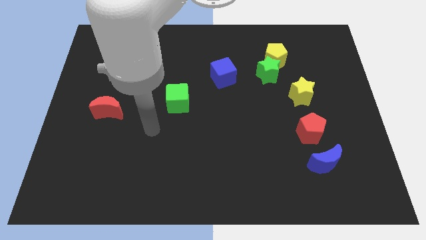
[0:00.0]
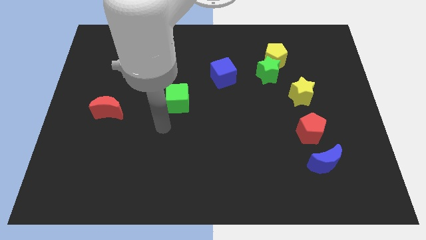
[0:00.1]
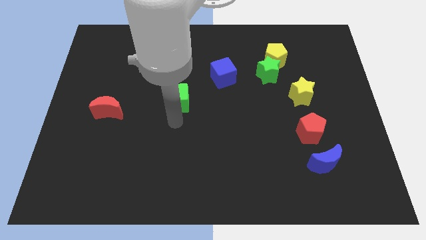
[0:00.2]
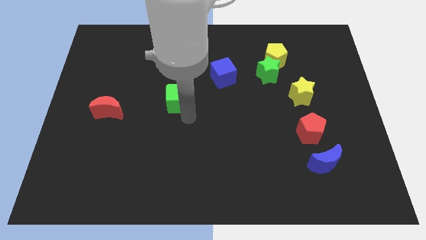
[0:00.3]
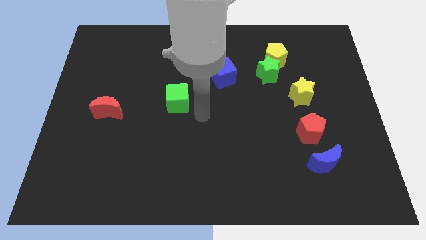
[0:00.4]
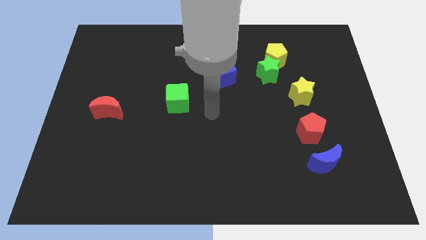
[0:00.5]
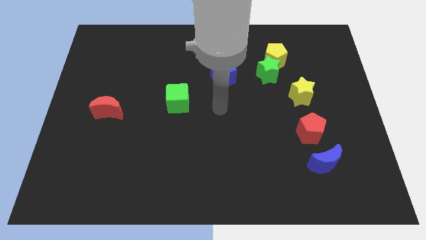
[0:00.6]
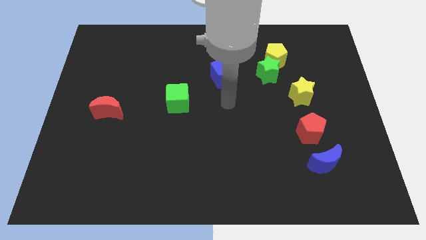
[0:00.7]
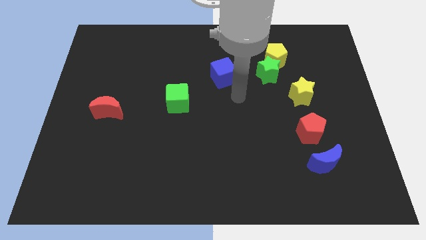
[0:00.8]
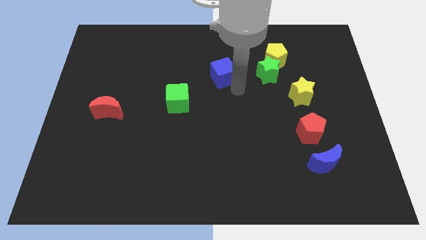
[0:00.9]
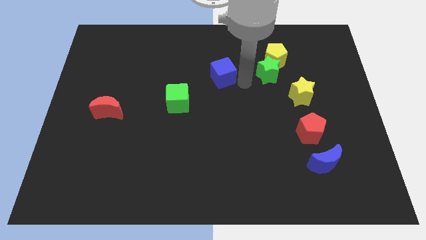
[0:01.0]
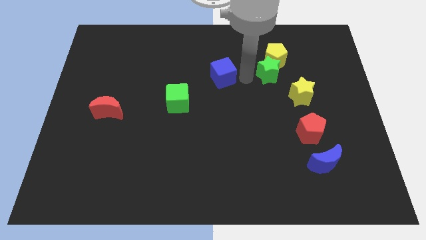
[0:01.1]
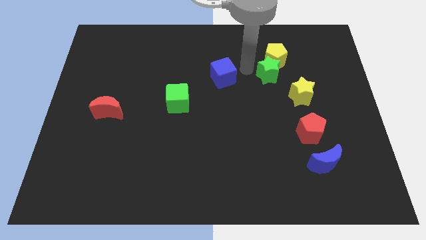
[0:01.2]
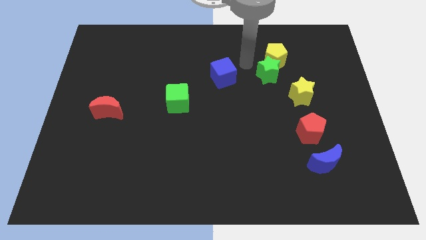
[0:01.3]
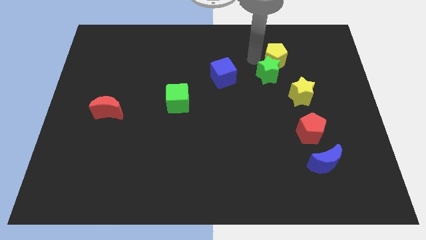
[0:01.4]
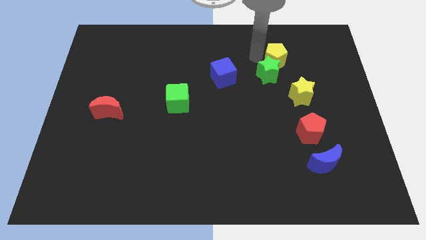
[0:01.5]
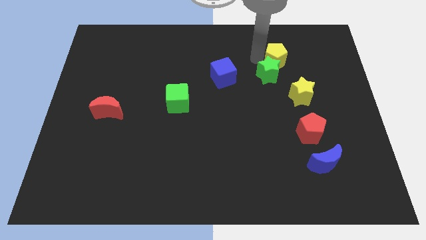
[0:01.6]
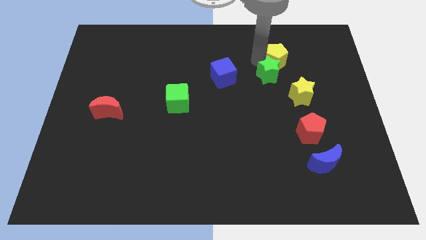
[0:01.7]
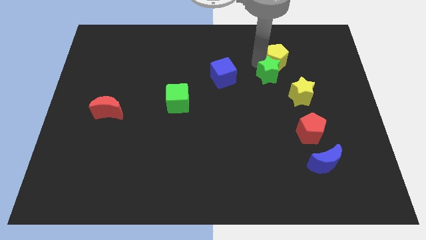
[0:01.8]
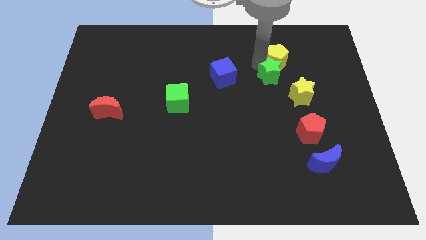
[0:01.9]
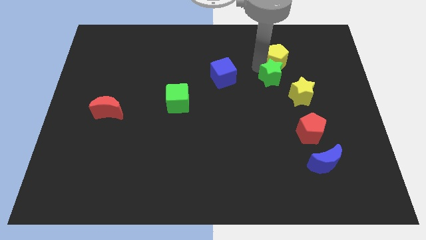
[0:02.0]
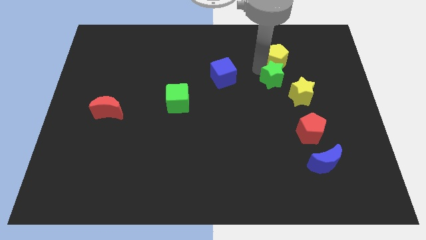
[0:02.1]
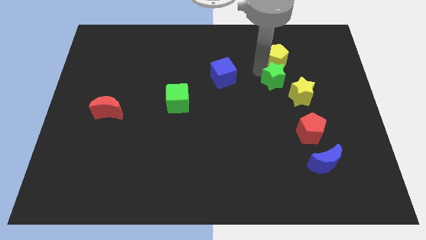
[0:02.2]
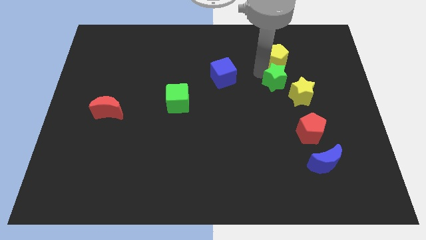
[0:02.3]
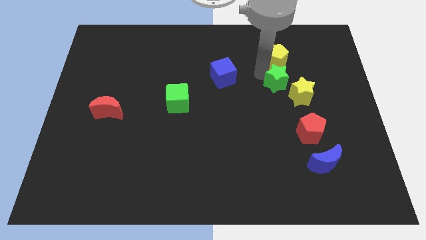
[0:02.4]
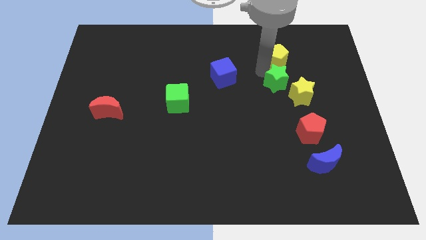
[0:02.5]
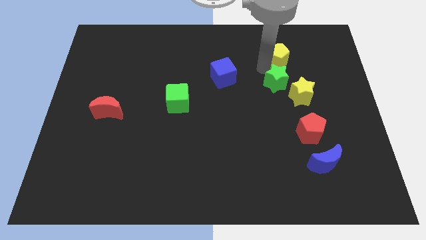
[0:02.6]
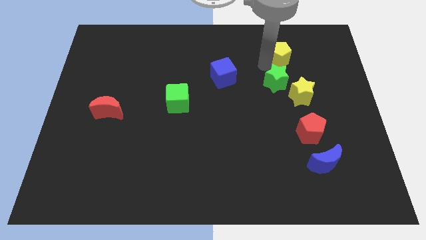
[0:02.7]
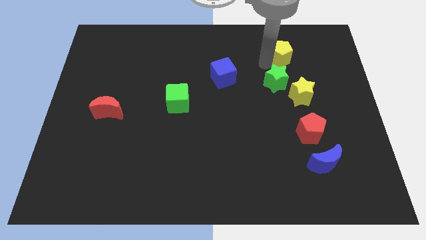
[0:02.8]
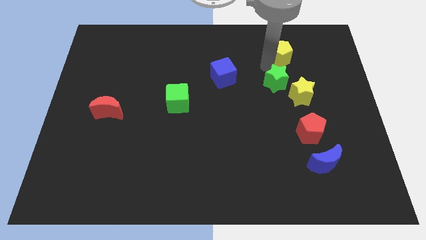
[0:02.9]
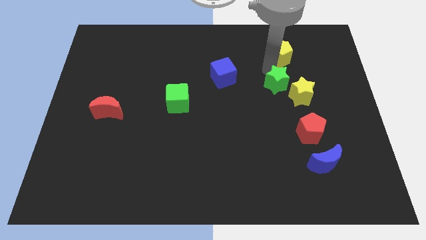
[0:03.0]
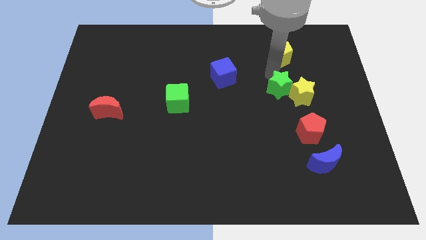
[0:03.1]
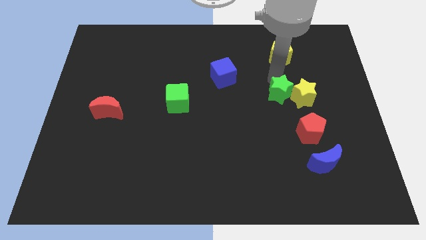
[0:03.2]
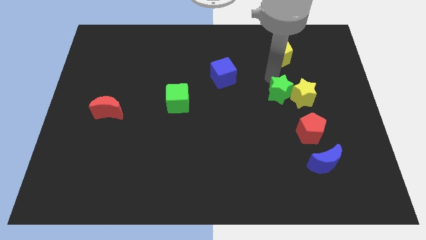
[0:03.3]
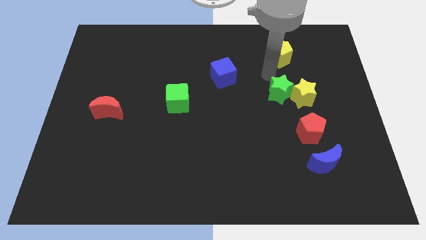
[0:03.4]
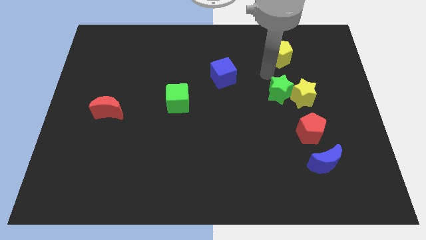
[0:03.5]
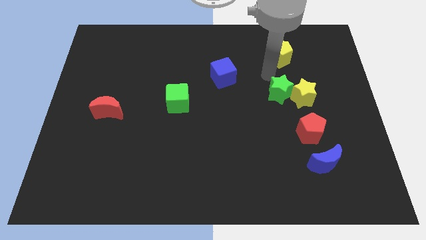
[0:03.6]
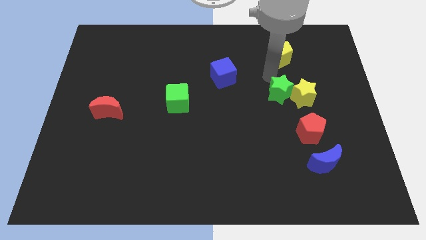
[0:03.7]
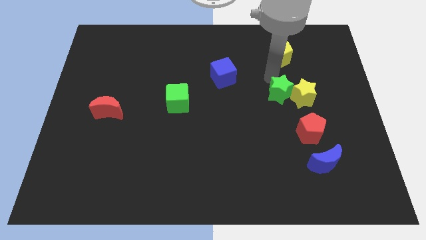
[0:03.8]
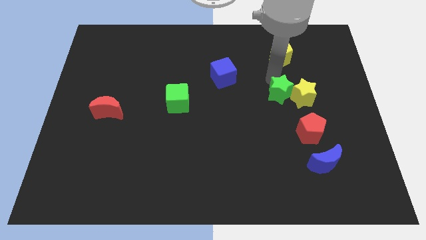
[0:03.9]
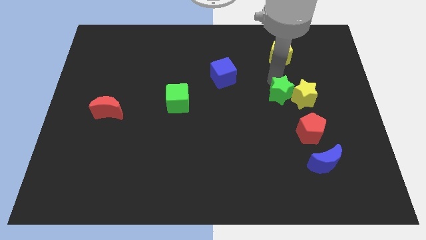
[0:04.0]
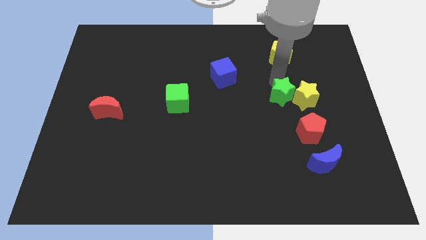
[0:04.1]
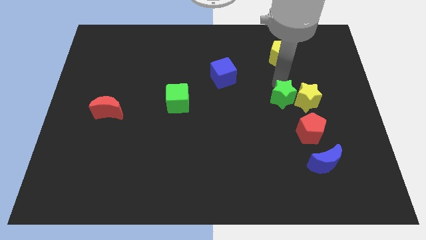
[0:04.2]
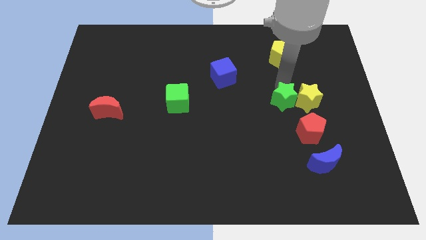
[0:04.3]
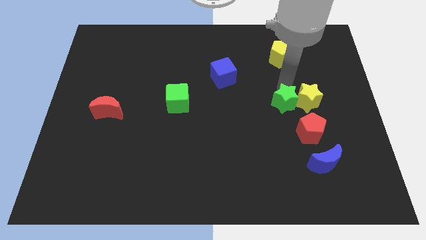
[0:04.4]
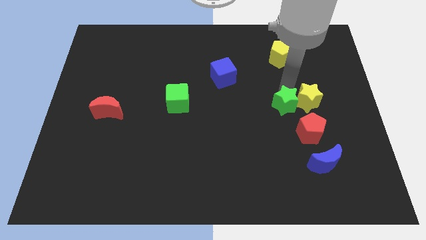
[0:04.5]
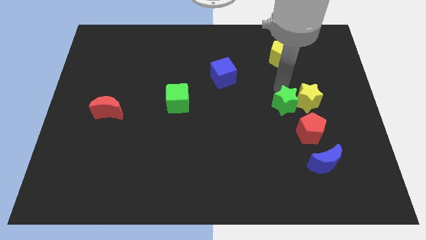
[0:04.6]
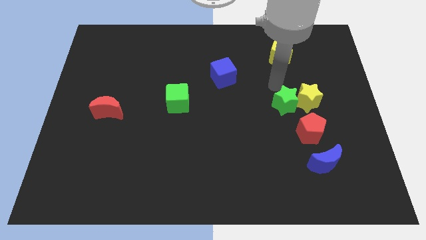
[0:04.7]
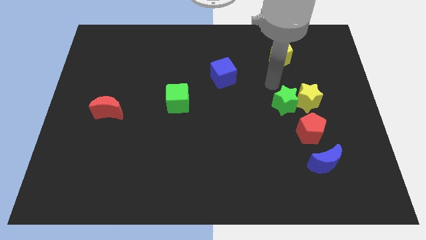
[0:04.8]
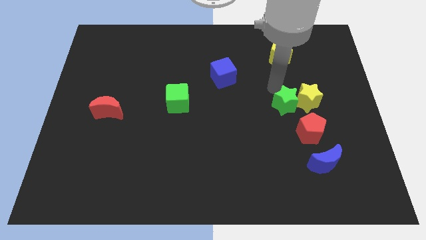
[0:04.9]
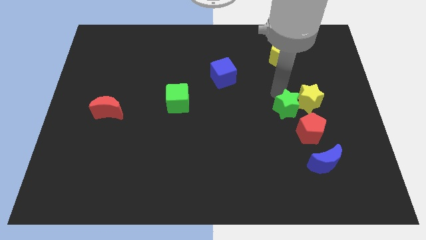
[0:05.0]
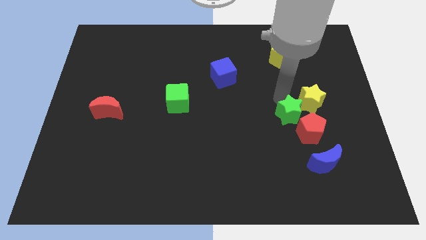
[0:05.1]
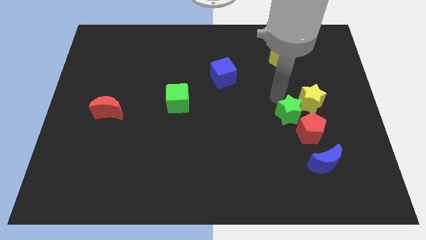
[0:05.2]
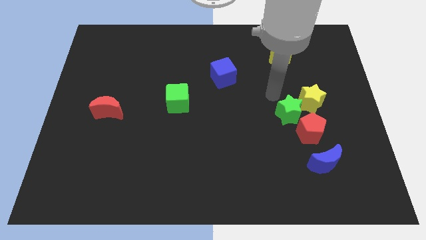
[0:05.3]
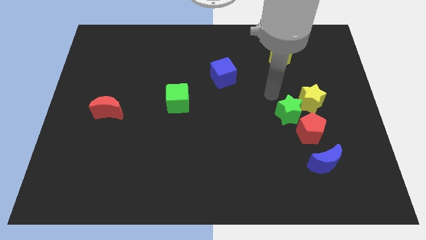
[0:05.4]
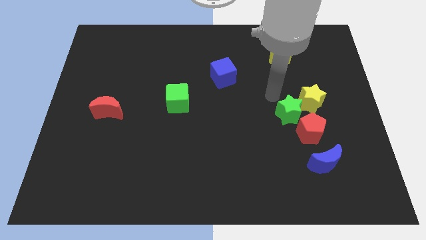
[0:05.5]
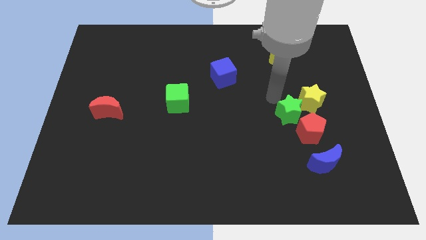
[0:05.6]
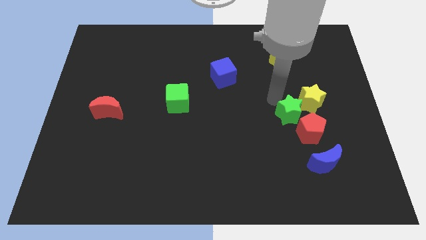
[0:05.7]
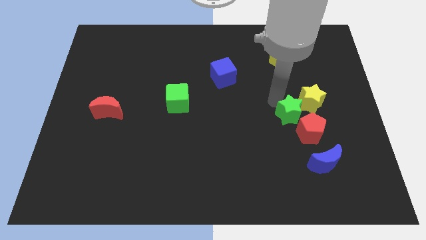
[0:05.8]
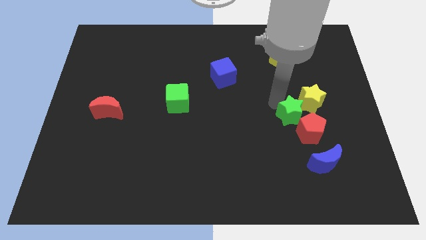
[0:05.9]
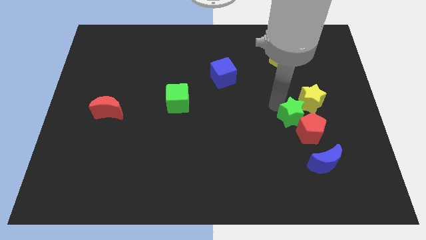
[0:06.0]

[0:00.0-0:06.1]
move the green star close to the red pentagon

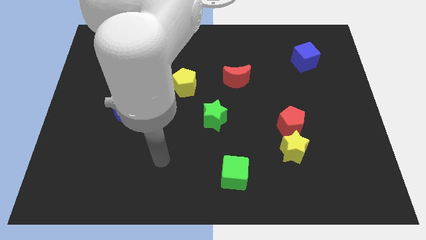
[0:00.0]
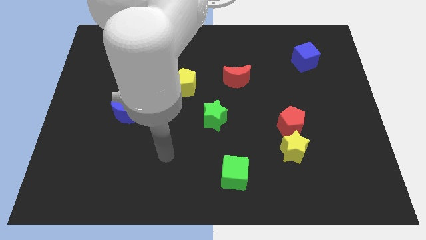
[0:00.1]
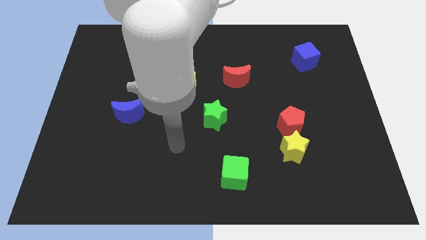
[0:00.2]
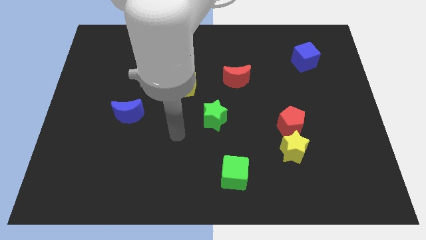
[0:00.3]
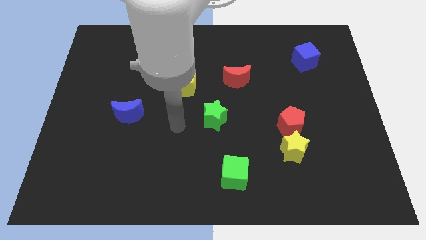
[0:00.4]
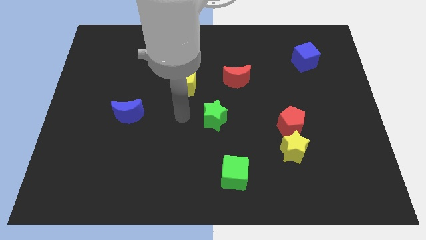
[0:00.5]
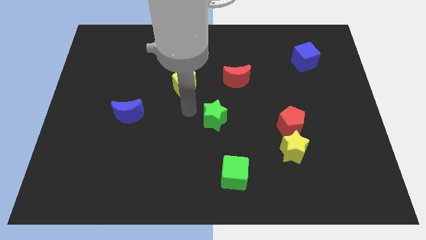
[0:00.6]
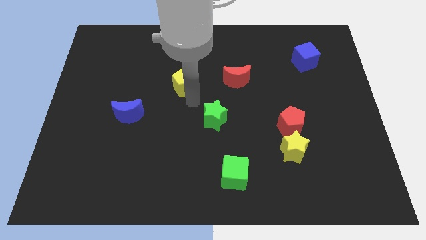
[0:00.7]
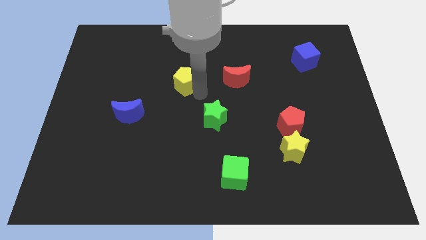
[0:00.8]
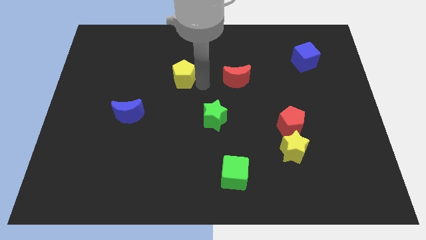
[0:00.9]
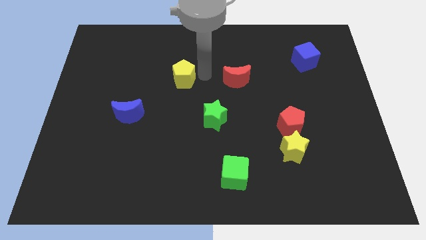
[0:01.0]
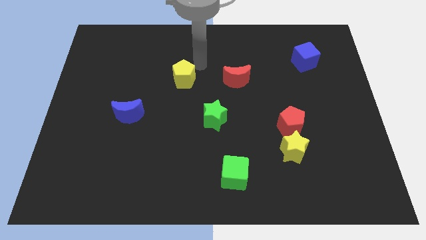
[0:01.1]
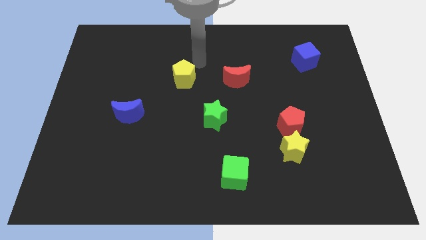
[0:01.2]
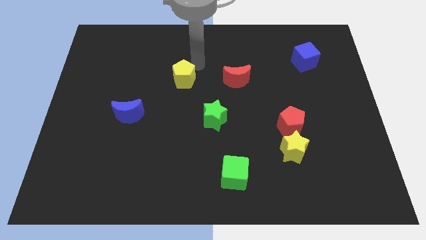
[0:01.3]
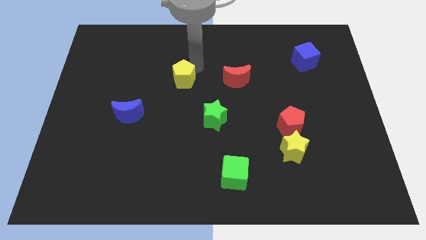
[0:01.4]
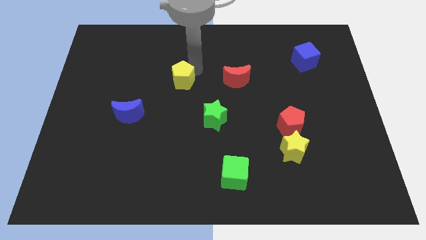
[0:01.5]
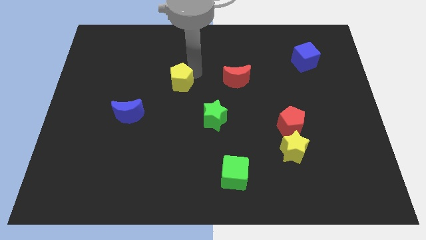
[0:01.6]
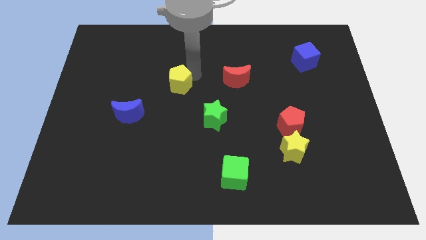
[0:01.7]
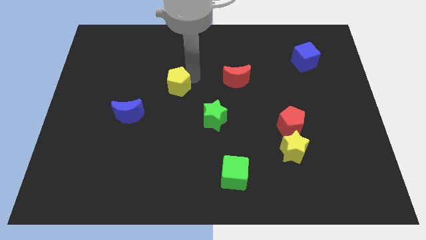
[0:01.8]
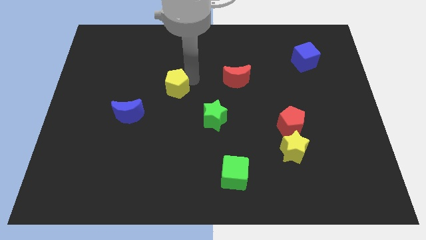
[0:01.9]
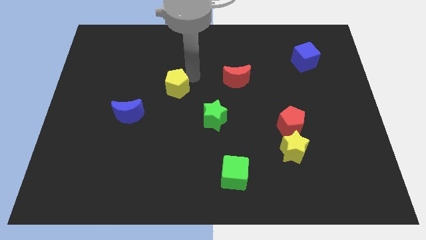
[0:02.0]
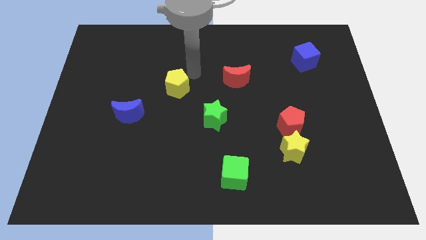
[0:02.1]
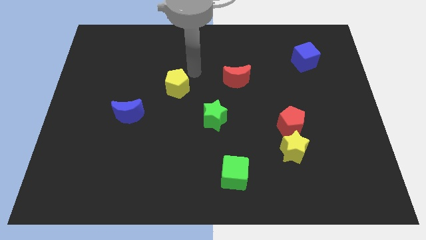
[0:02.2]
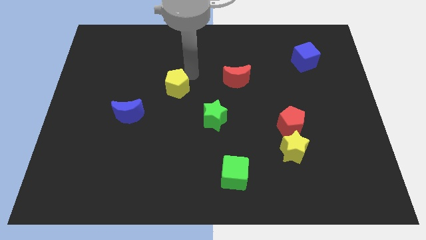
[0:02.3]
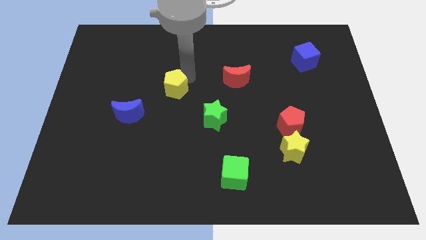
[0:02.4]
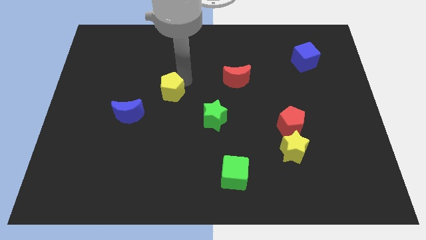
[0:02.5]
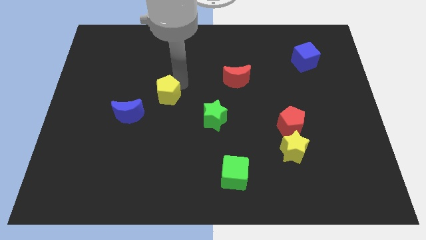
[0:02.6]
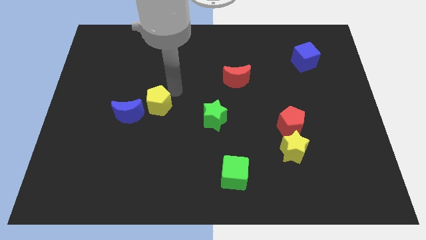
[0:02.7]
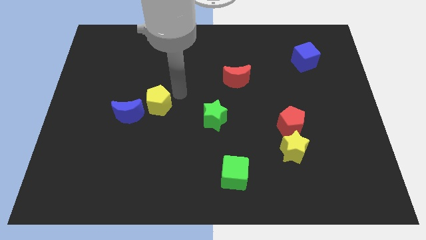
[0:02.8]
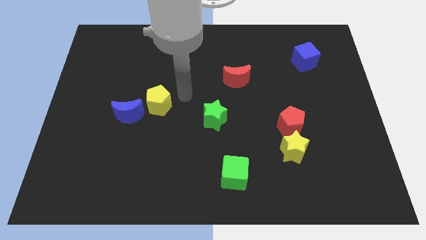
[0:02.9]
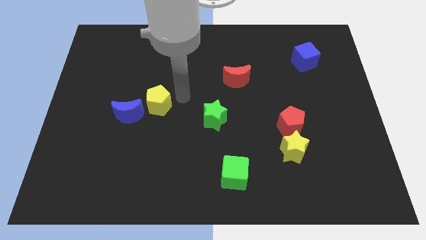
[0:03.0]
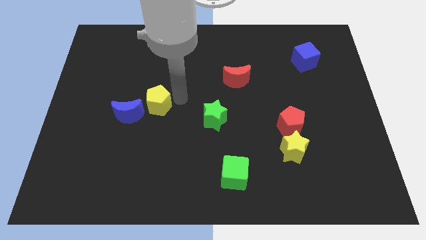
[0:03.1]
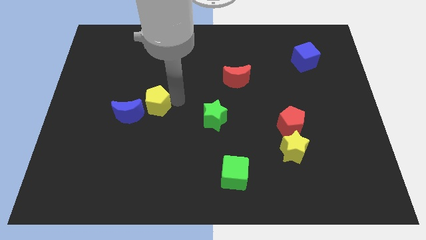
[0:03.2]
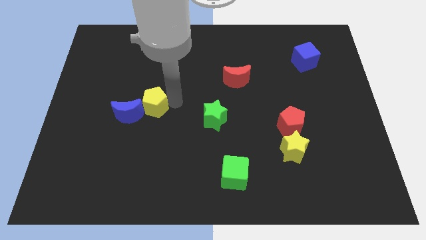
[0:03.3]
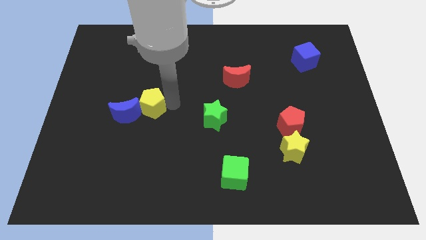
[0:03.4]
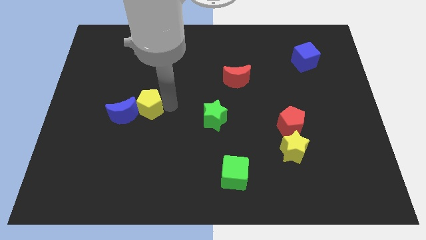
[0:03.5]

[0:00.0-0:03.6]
put the yellow pentagon close to the blue moon
